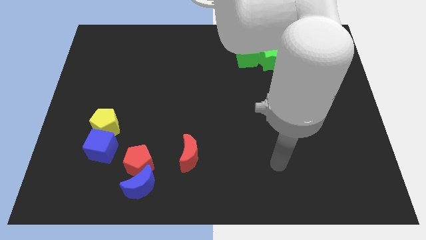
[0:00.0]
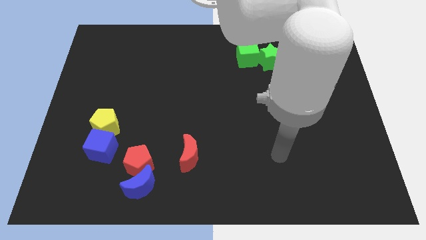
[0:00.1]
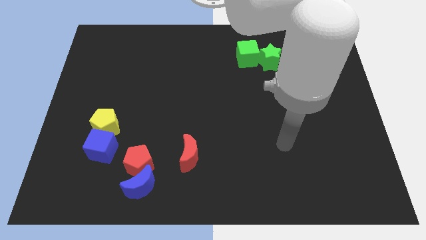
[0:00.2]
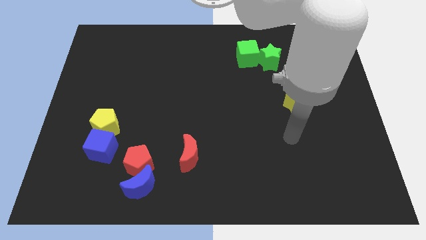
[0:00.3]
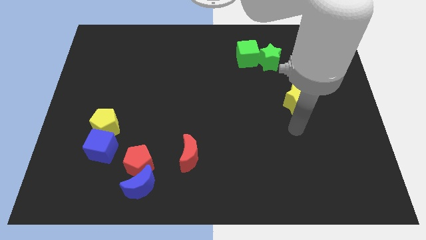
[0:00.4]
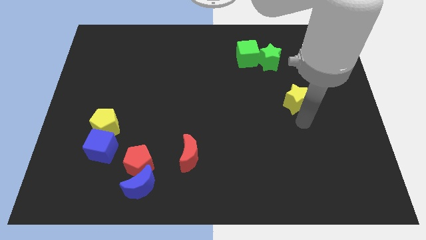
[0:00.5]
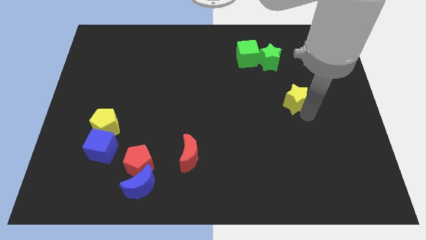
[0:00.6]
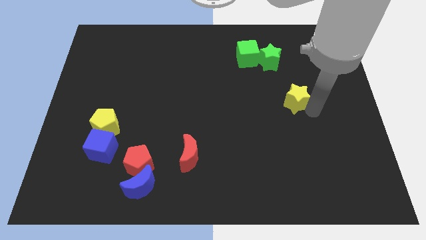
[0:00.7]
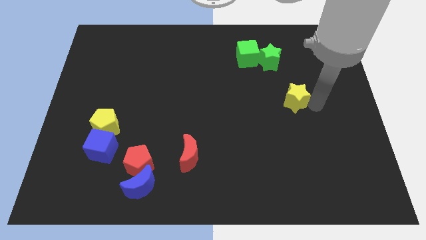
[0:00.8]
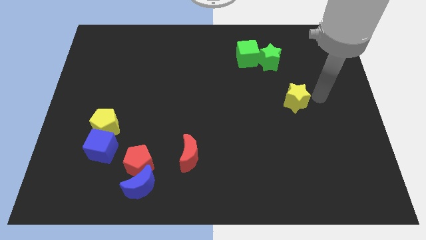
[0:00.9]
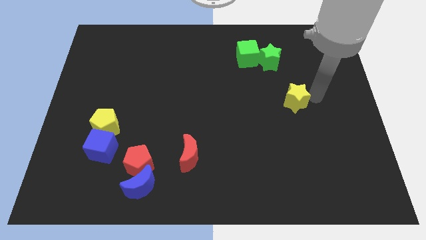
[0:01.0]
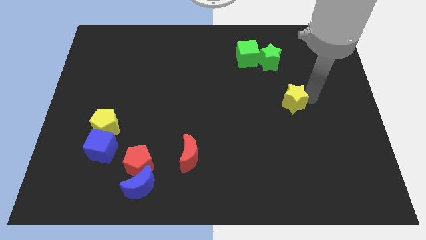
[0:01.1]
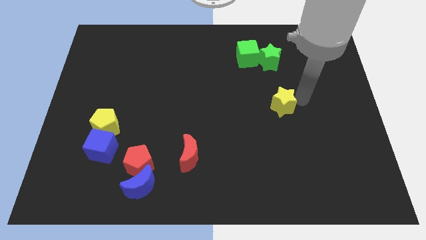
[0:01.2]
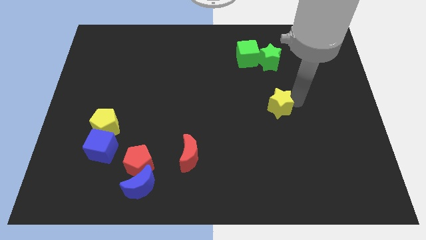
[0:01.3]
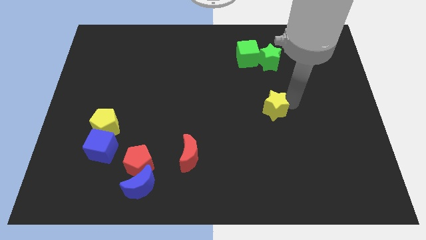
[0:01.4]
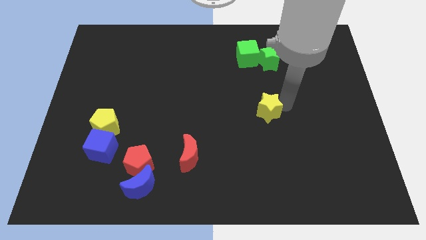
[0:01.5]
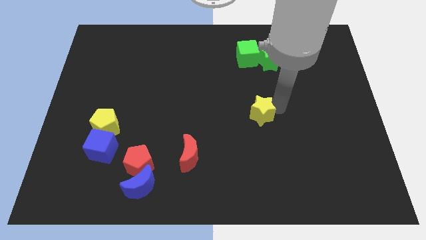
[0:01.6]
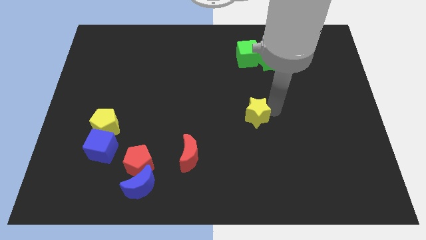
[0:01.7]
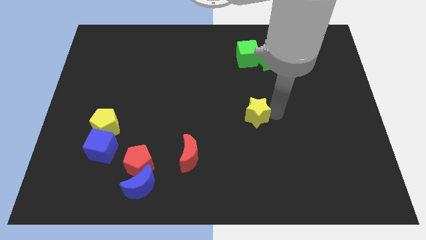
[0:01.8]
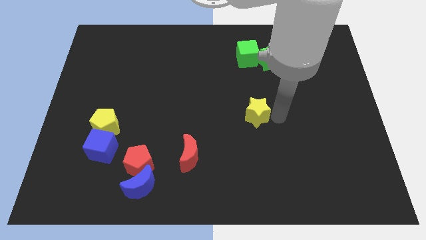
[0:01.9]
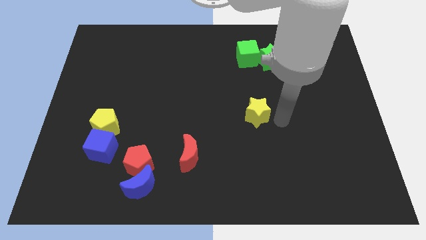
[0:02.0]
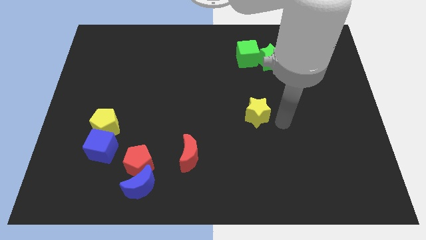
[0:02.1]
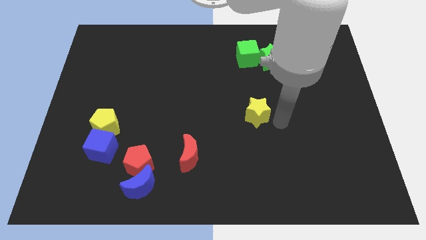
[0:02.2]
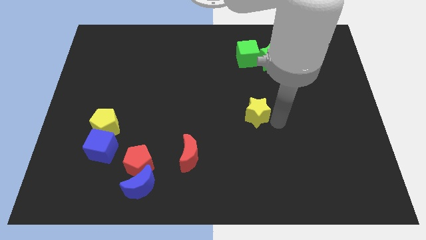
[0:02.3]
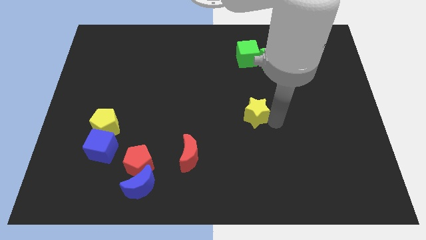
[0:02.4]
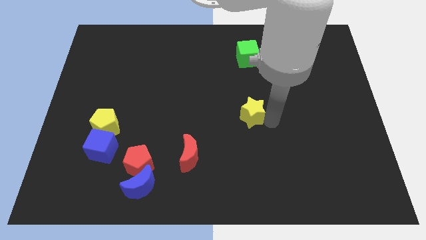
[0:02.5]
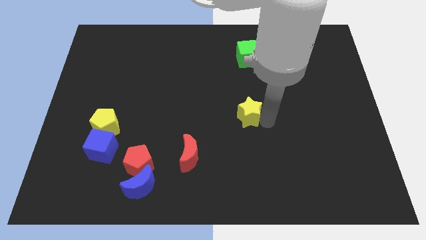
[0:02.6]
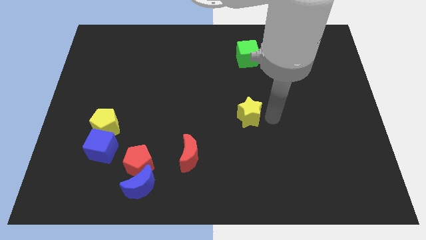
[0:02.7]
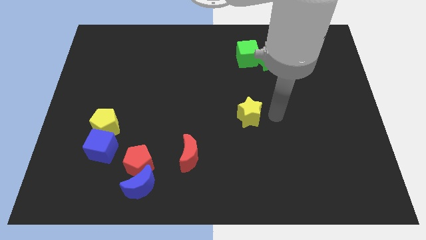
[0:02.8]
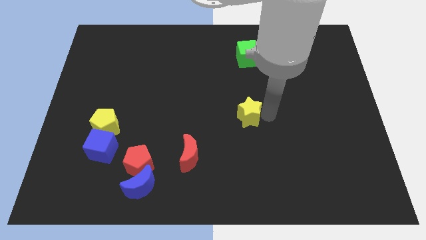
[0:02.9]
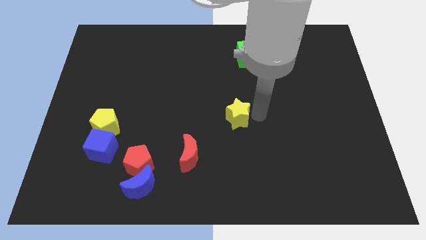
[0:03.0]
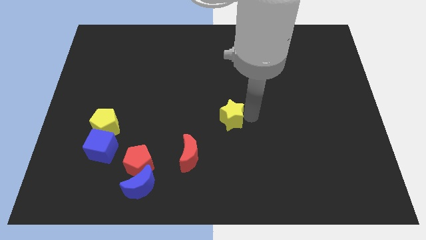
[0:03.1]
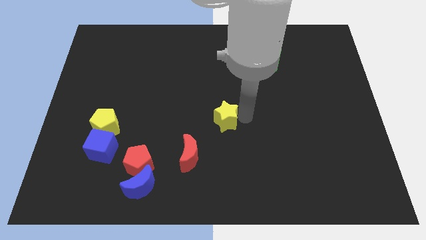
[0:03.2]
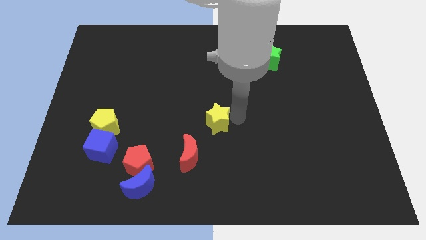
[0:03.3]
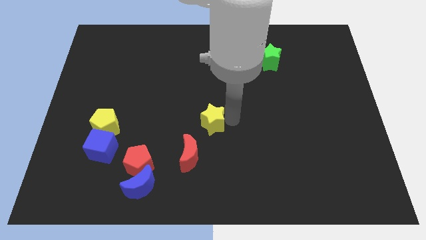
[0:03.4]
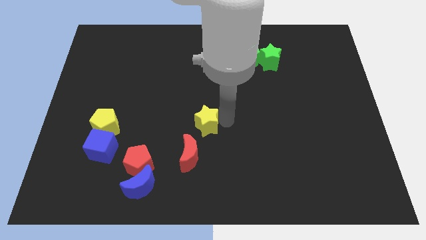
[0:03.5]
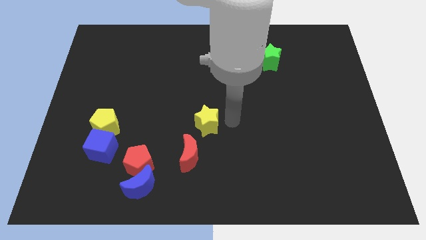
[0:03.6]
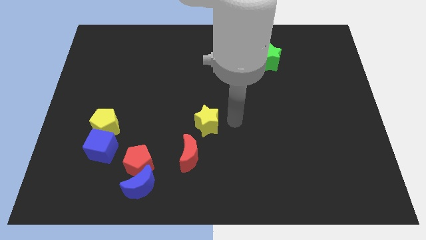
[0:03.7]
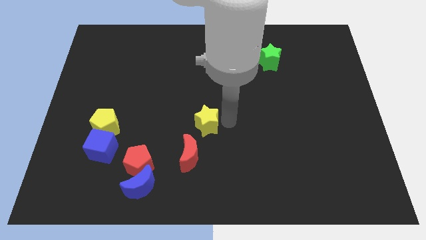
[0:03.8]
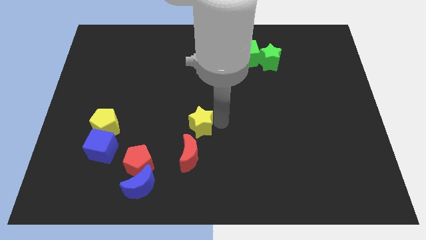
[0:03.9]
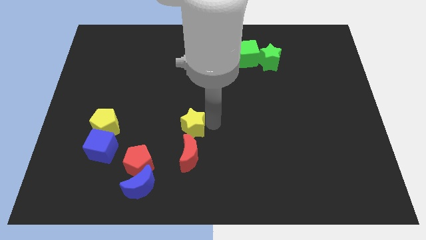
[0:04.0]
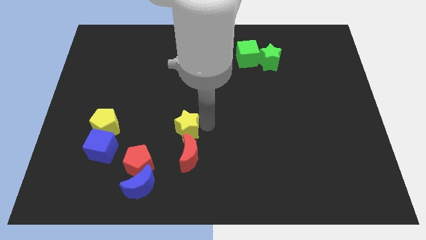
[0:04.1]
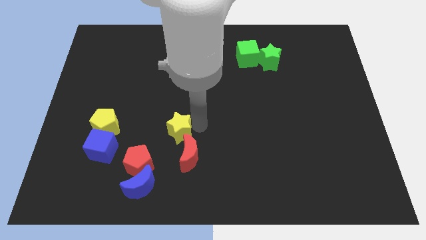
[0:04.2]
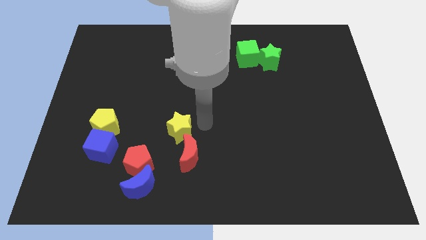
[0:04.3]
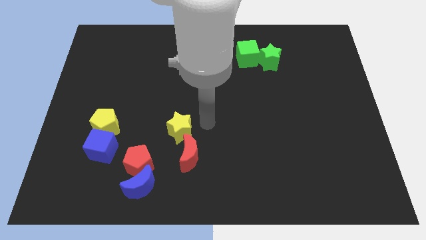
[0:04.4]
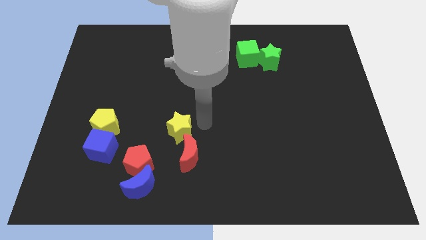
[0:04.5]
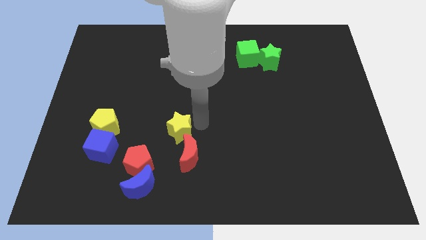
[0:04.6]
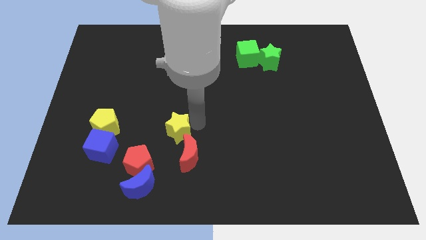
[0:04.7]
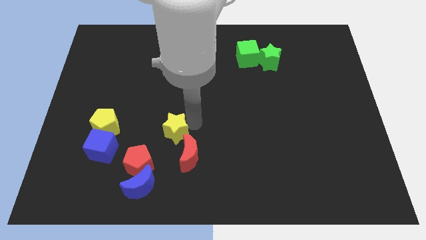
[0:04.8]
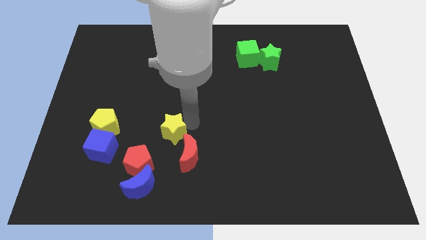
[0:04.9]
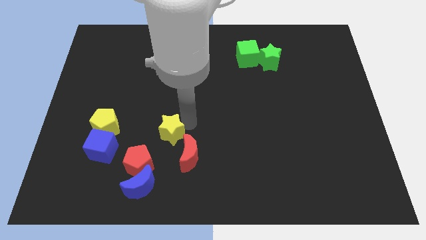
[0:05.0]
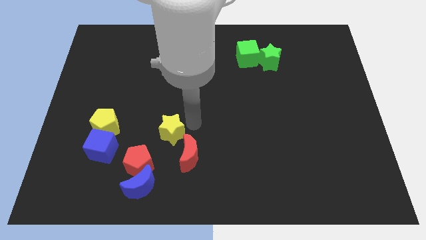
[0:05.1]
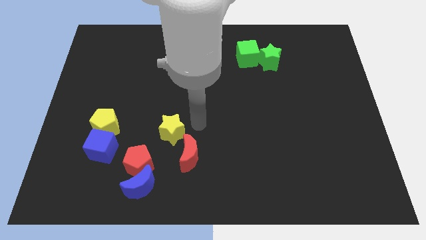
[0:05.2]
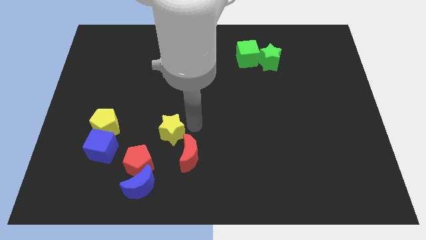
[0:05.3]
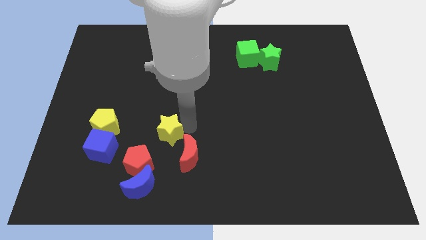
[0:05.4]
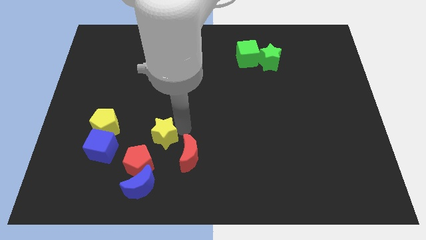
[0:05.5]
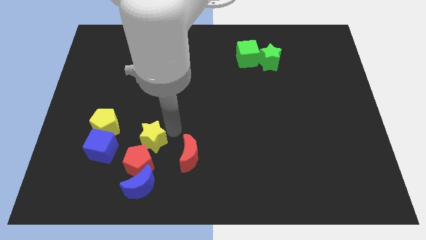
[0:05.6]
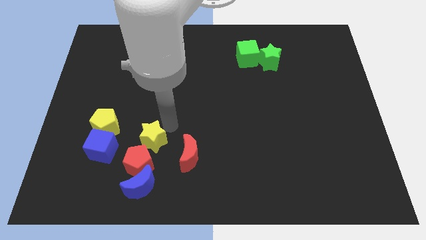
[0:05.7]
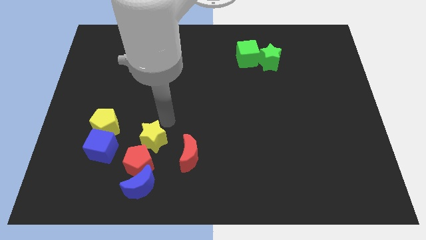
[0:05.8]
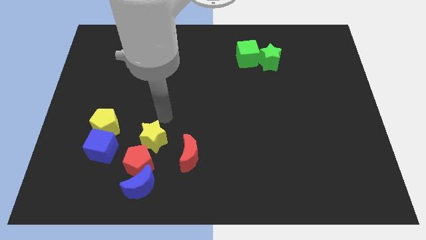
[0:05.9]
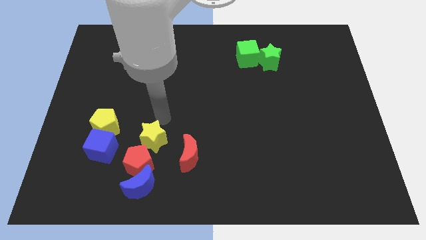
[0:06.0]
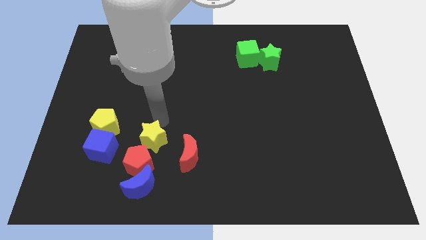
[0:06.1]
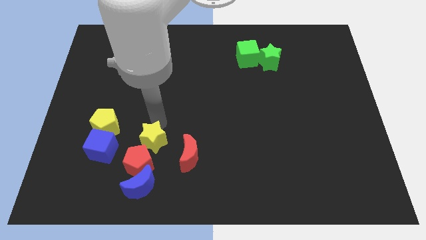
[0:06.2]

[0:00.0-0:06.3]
slide the yellow star to the red pentagon

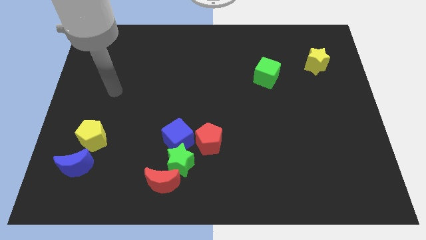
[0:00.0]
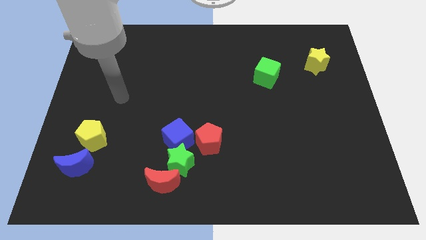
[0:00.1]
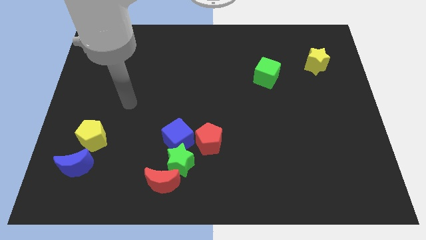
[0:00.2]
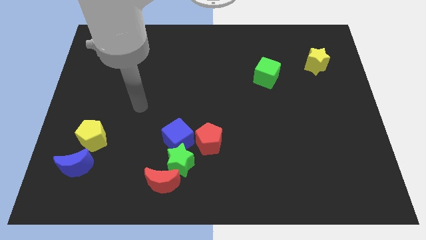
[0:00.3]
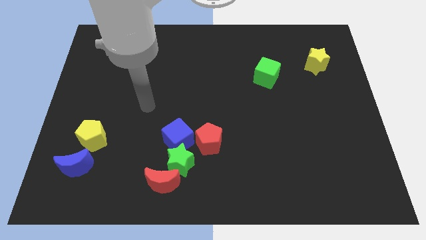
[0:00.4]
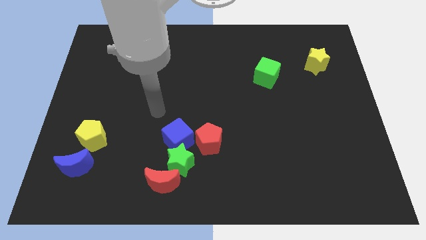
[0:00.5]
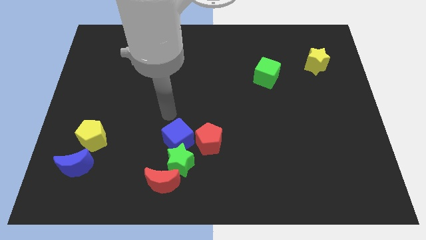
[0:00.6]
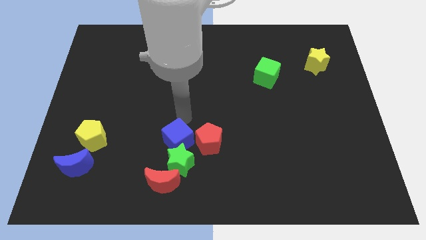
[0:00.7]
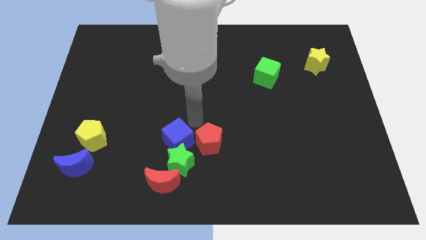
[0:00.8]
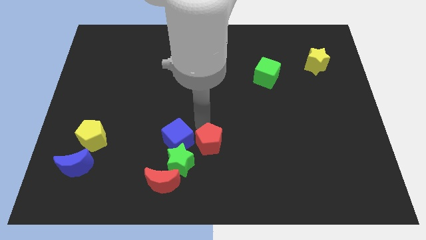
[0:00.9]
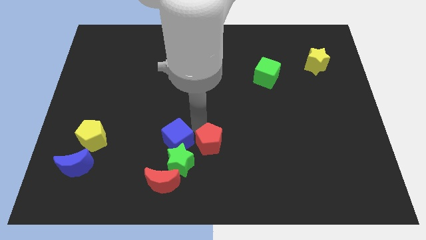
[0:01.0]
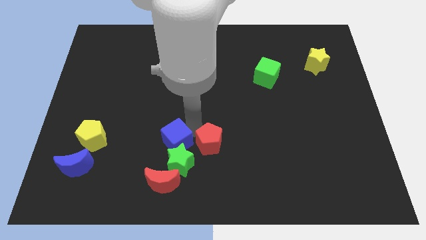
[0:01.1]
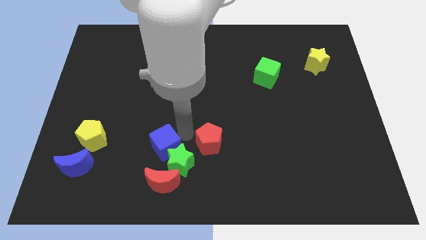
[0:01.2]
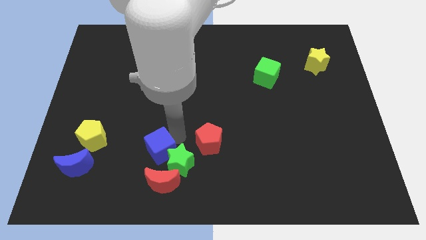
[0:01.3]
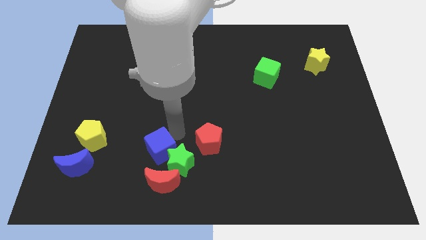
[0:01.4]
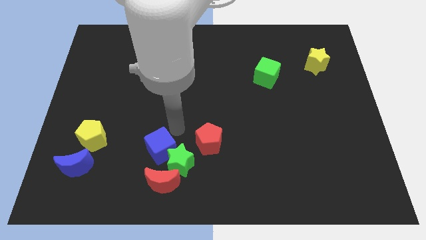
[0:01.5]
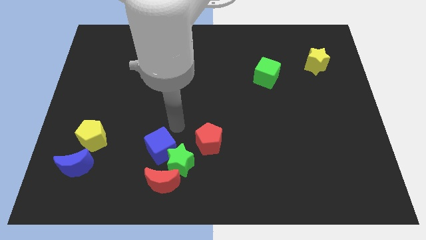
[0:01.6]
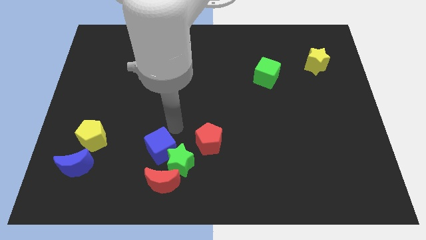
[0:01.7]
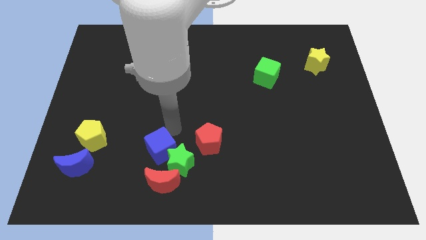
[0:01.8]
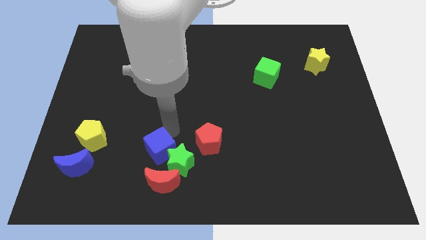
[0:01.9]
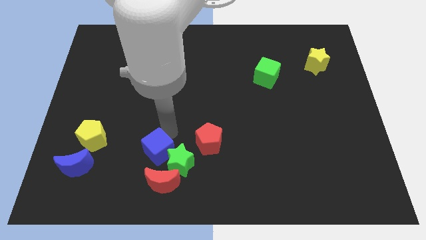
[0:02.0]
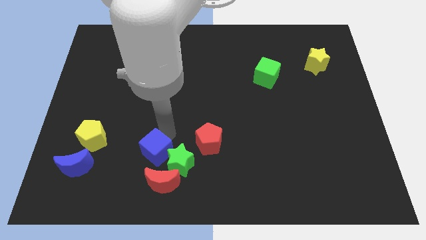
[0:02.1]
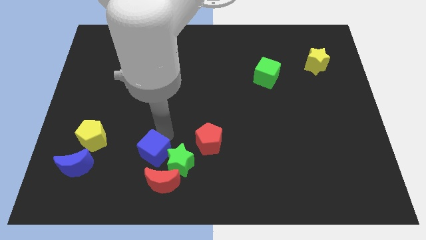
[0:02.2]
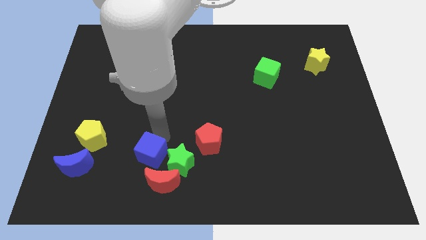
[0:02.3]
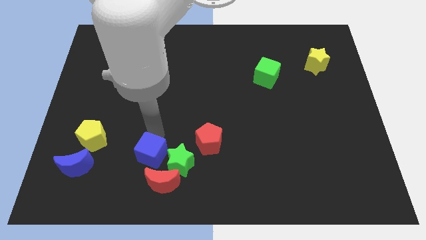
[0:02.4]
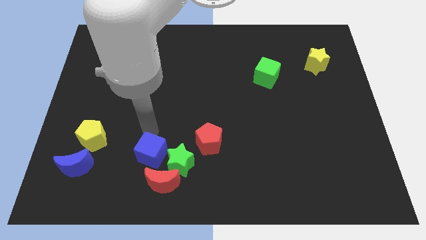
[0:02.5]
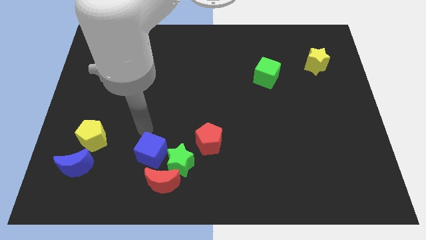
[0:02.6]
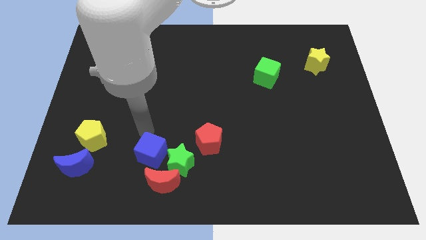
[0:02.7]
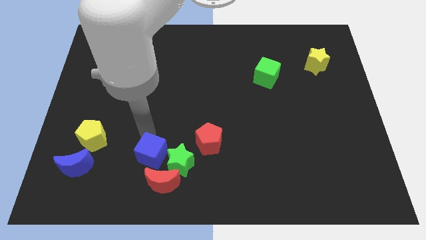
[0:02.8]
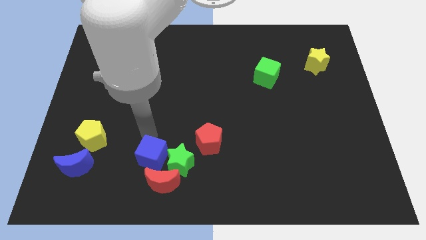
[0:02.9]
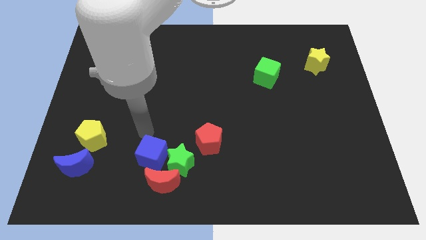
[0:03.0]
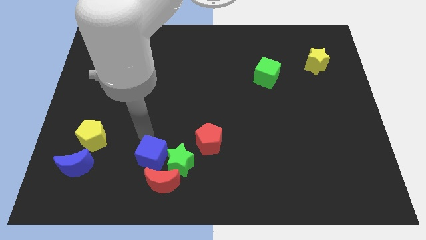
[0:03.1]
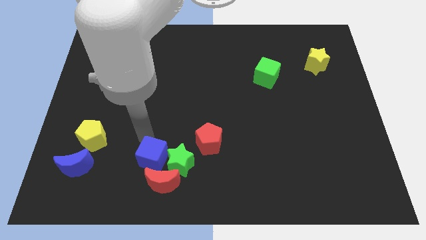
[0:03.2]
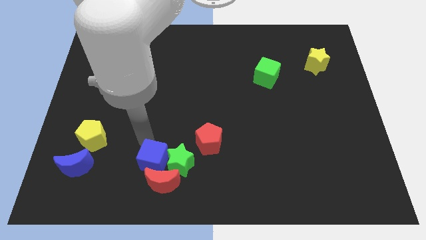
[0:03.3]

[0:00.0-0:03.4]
move the blue cube next to the red moon
